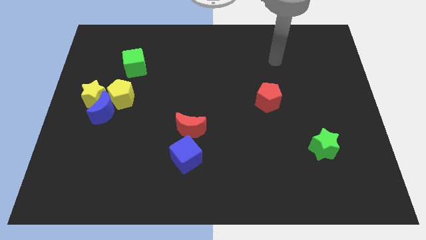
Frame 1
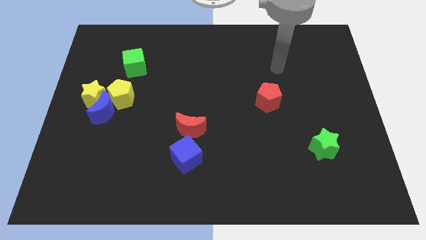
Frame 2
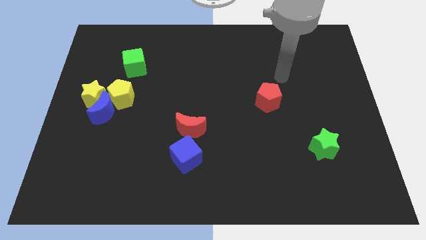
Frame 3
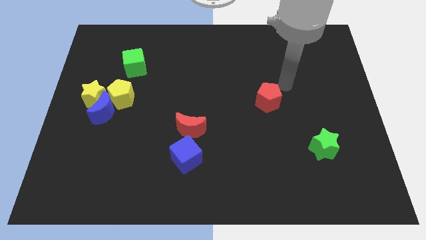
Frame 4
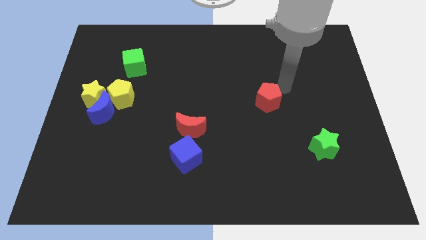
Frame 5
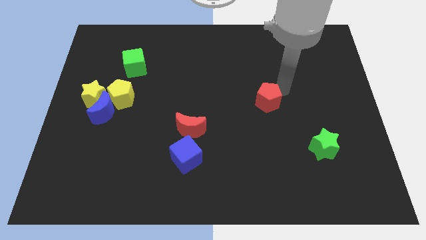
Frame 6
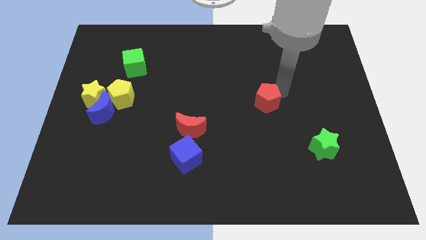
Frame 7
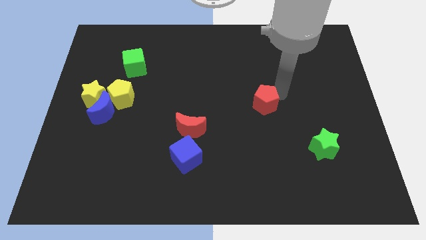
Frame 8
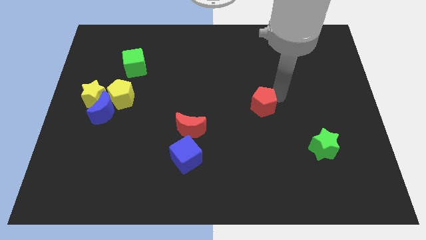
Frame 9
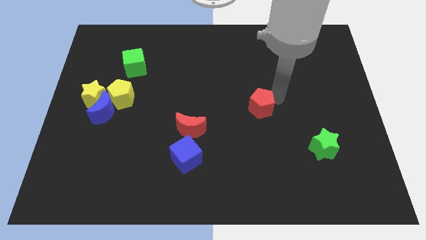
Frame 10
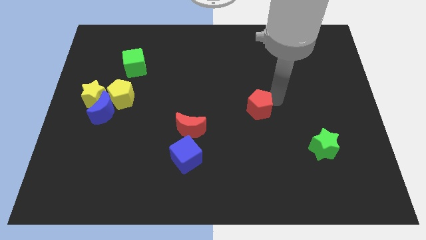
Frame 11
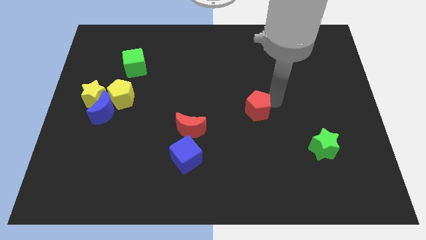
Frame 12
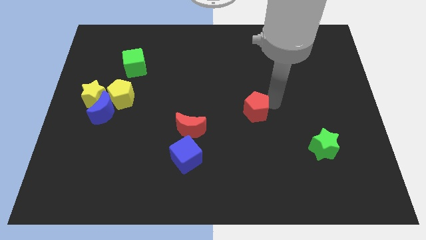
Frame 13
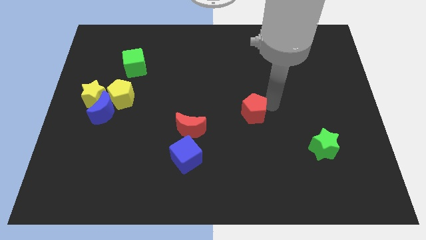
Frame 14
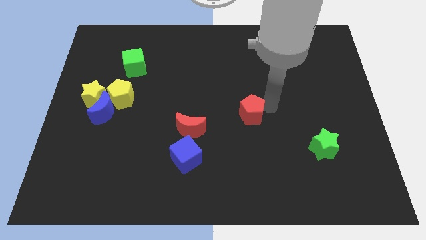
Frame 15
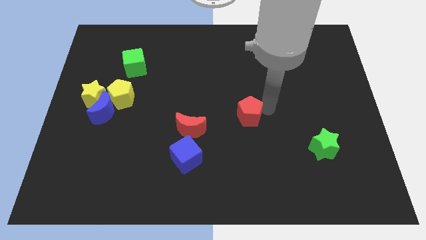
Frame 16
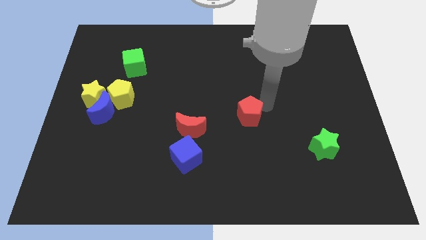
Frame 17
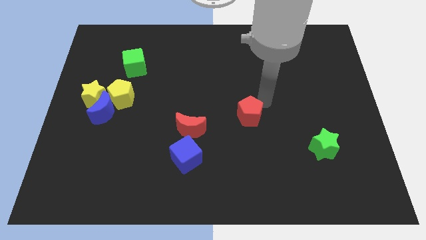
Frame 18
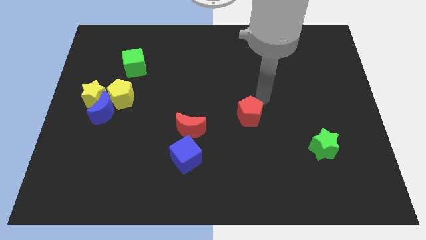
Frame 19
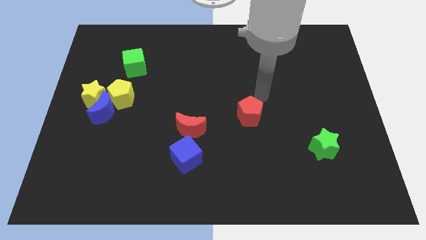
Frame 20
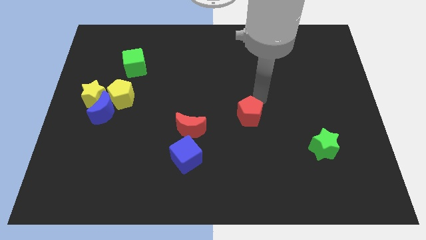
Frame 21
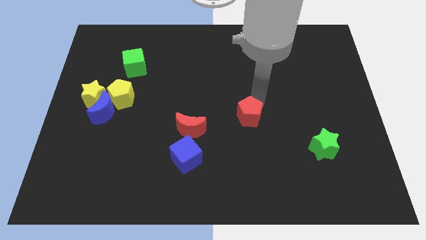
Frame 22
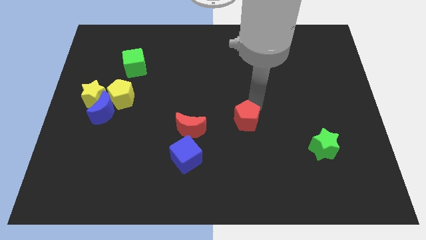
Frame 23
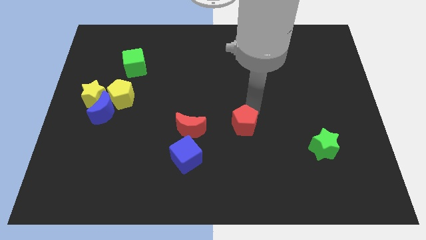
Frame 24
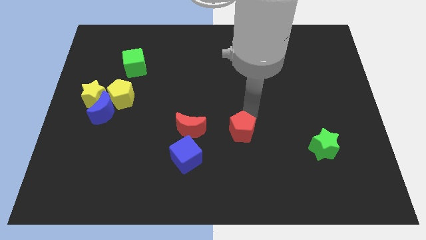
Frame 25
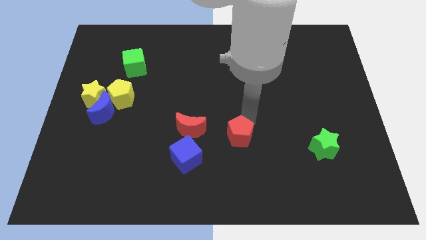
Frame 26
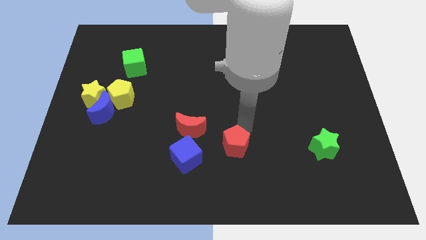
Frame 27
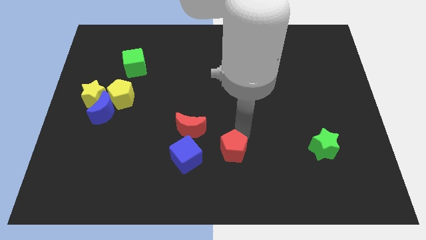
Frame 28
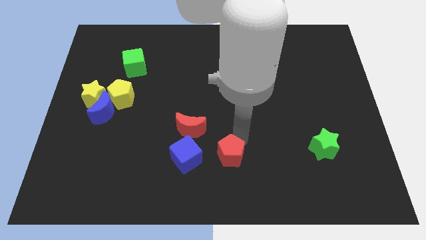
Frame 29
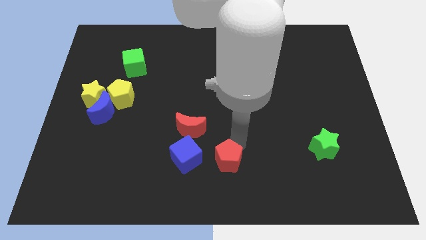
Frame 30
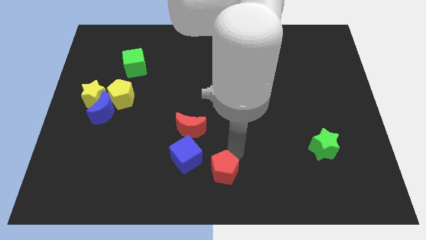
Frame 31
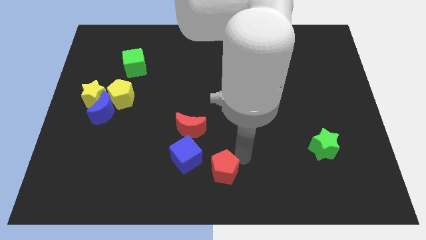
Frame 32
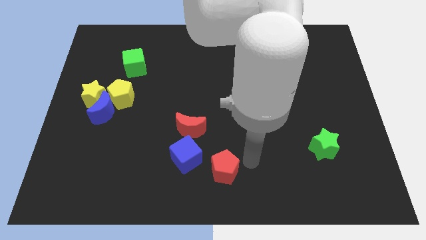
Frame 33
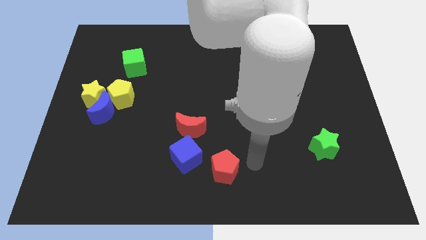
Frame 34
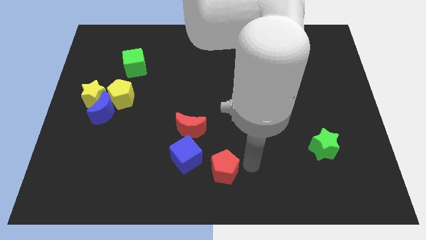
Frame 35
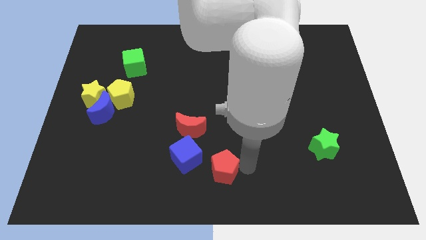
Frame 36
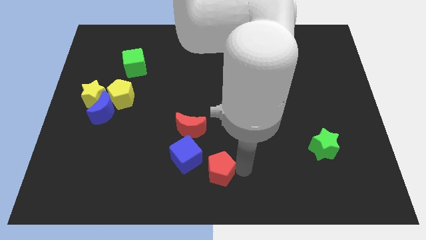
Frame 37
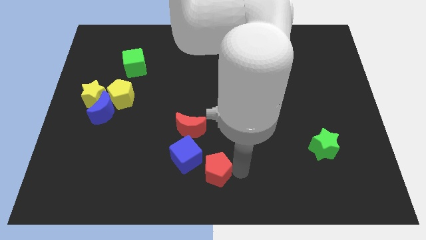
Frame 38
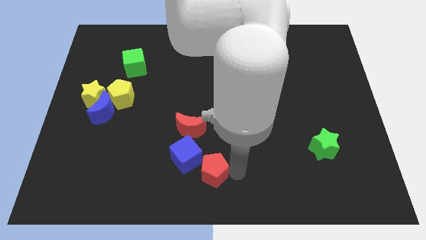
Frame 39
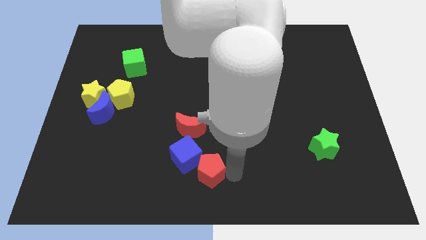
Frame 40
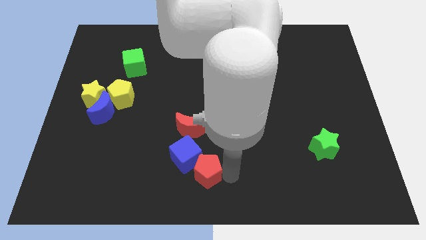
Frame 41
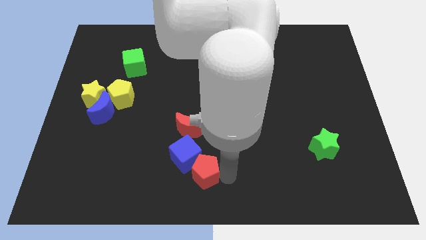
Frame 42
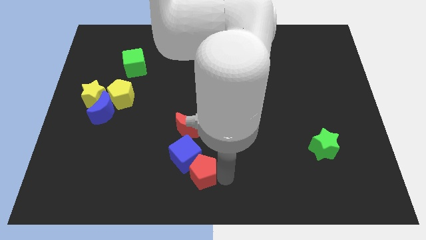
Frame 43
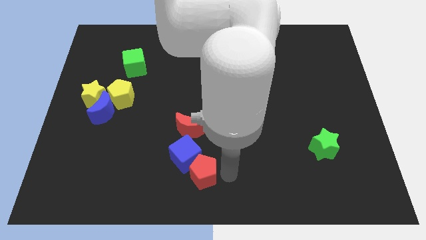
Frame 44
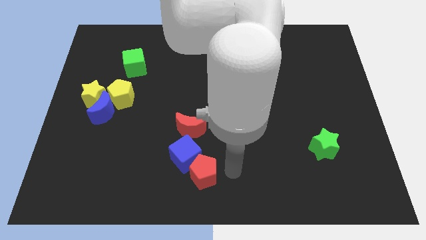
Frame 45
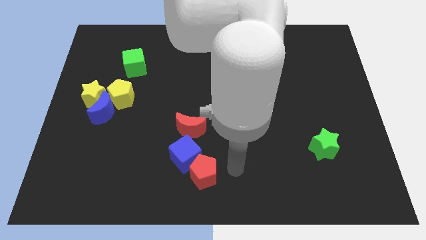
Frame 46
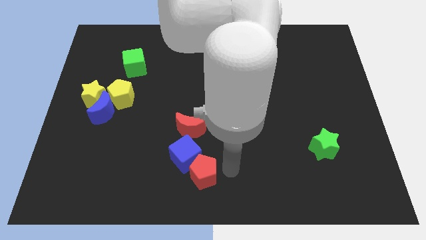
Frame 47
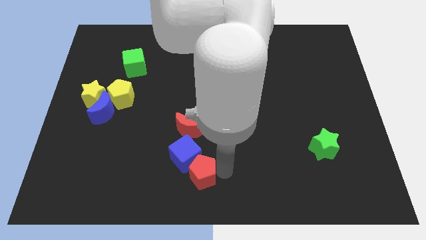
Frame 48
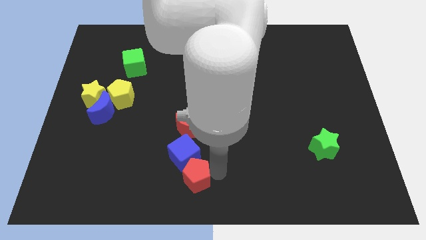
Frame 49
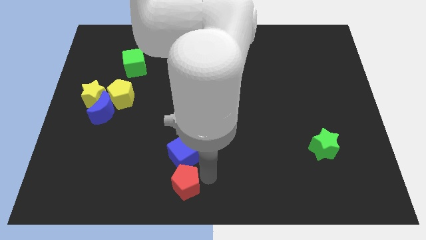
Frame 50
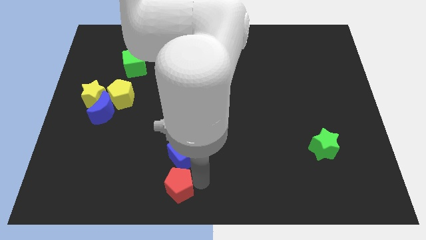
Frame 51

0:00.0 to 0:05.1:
move the red pentagon to the bottom left of the blue cube

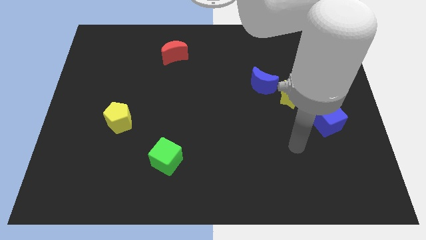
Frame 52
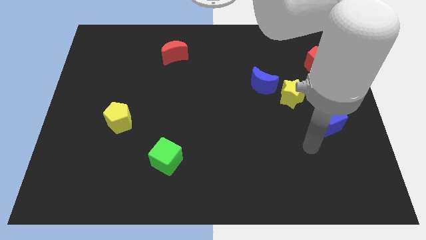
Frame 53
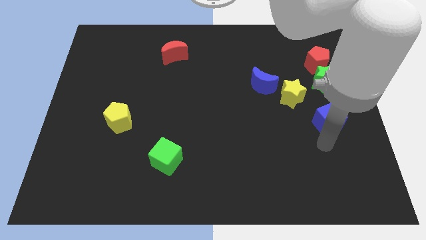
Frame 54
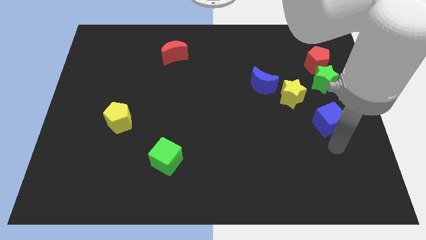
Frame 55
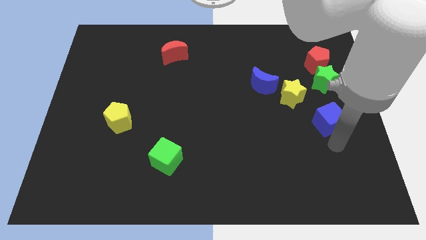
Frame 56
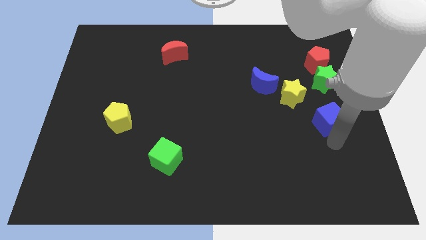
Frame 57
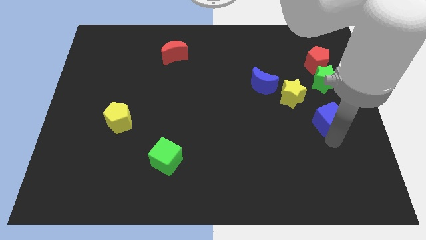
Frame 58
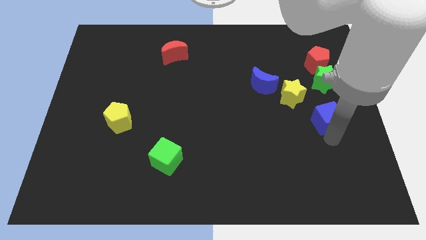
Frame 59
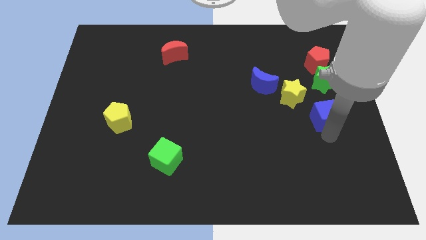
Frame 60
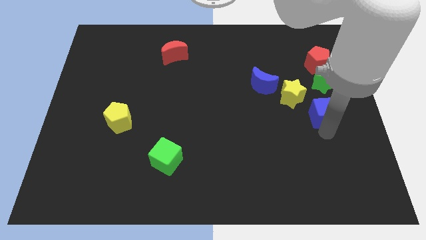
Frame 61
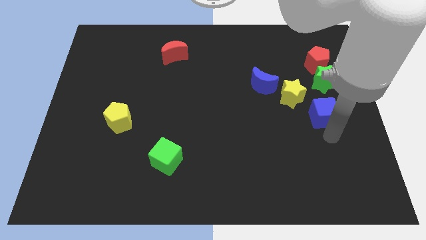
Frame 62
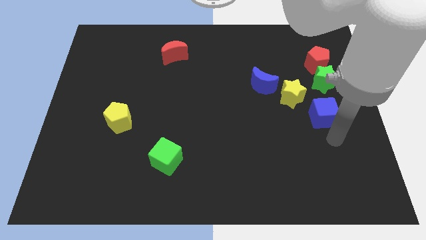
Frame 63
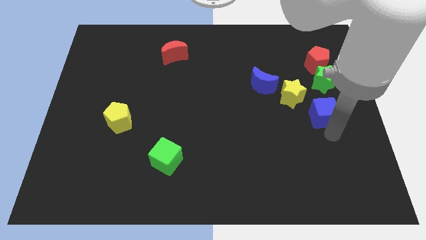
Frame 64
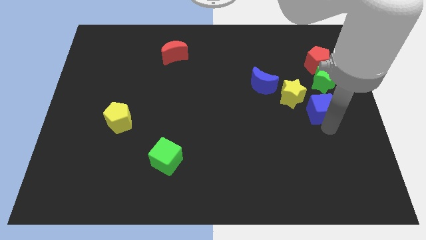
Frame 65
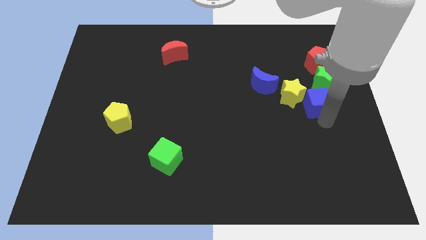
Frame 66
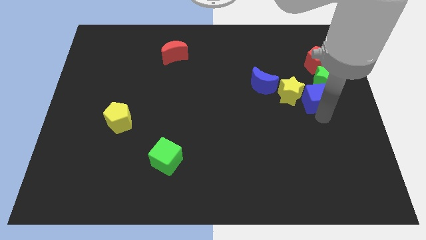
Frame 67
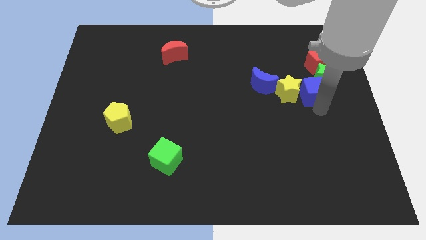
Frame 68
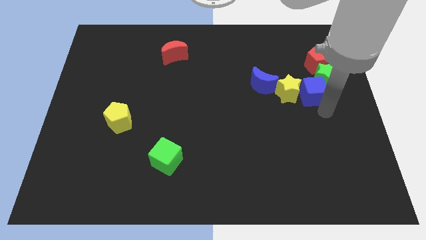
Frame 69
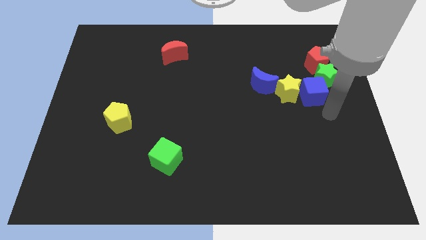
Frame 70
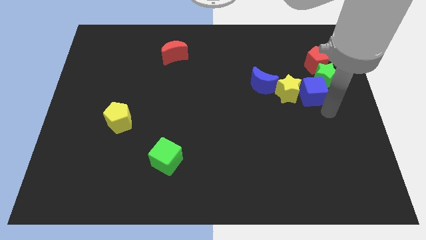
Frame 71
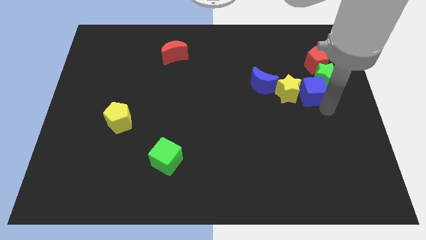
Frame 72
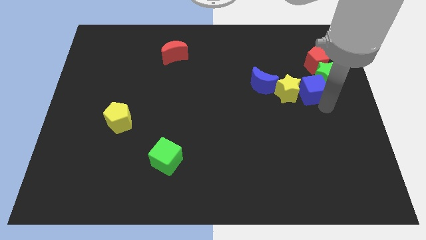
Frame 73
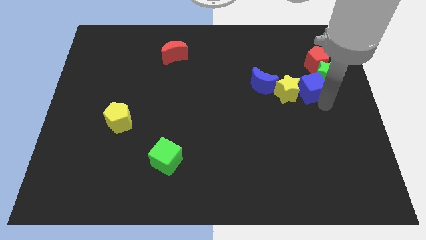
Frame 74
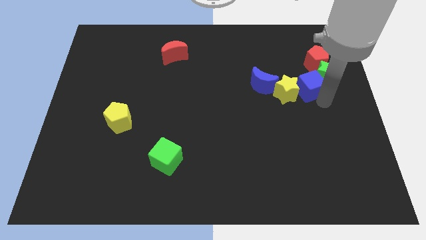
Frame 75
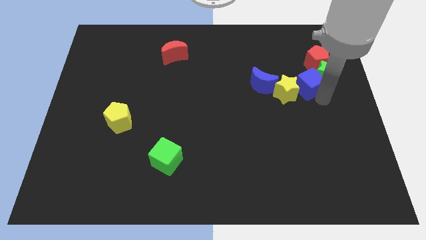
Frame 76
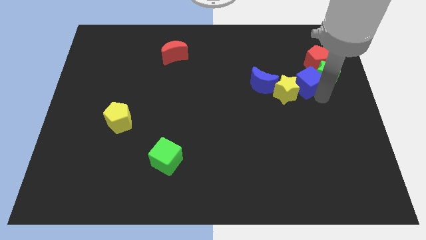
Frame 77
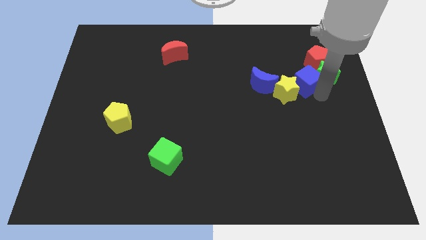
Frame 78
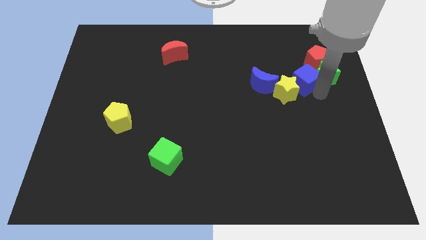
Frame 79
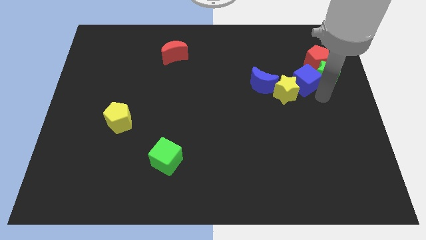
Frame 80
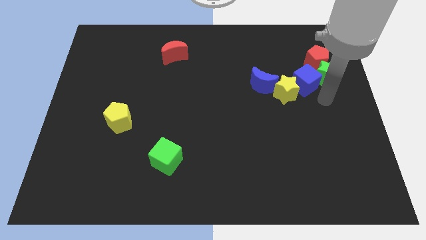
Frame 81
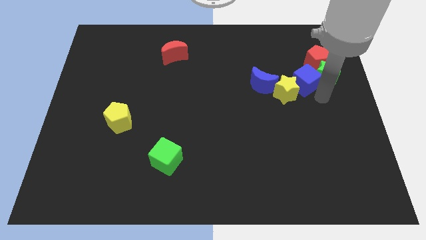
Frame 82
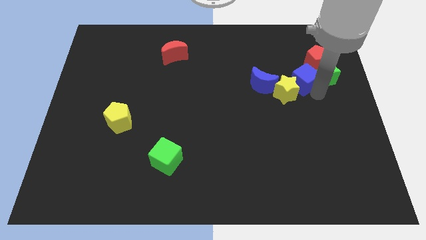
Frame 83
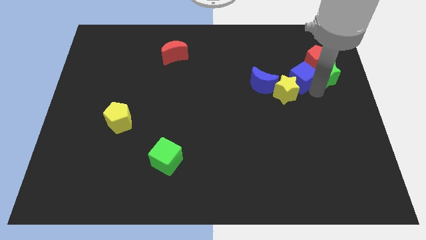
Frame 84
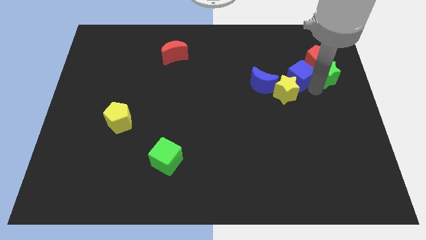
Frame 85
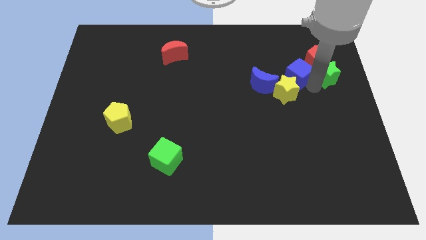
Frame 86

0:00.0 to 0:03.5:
move the blue cube diagonally up and to the right of the blue moon
